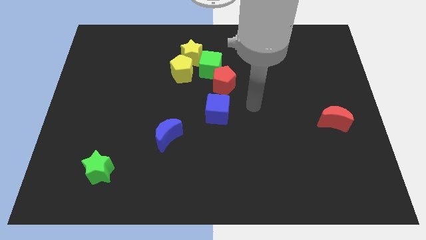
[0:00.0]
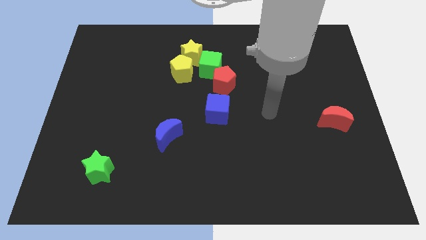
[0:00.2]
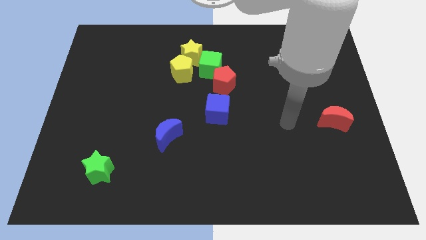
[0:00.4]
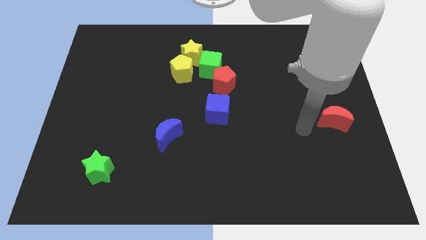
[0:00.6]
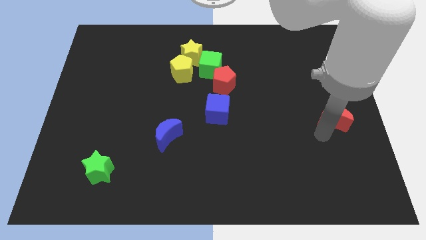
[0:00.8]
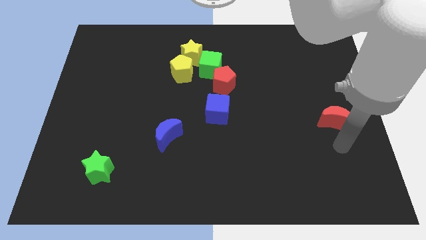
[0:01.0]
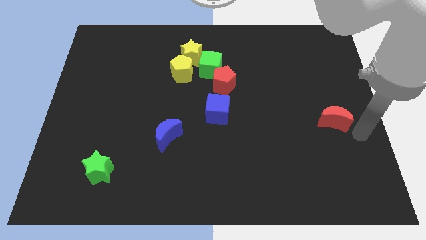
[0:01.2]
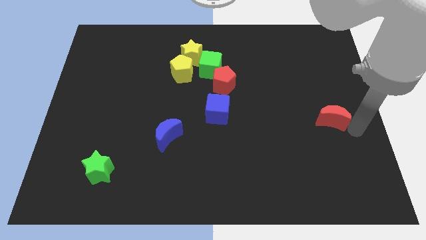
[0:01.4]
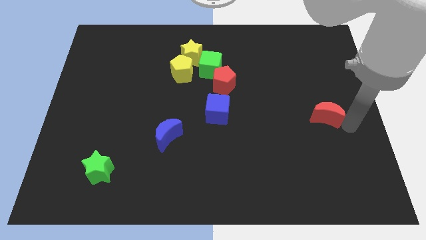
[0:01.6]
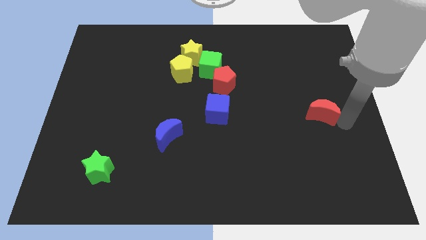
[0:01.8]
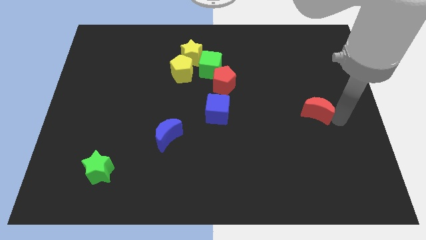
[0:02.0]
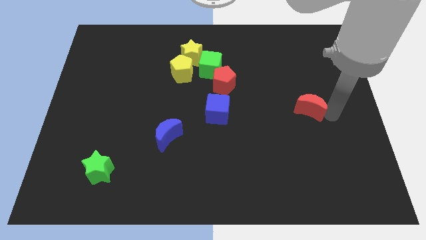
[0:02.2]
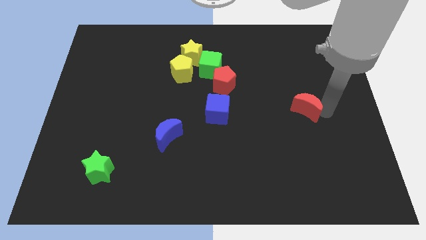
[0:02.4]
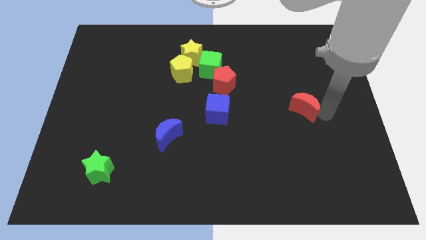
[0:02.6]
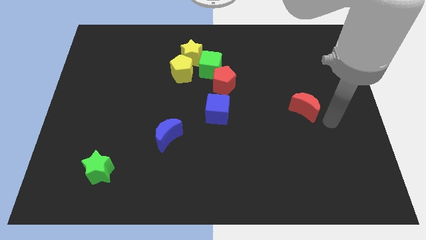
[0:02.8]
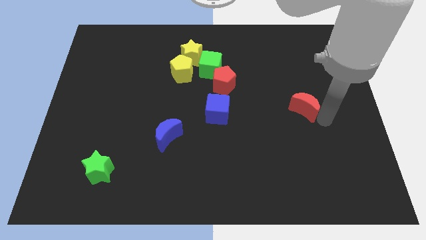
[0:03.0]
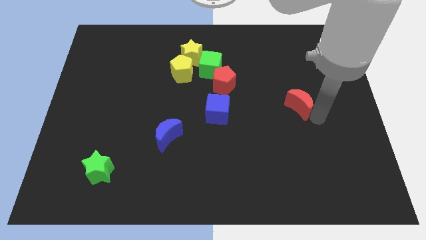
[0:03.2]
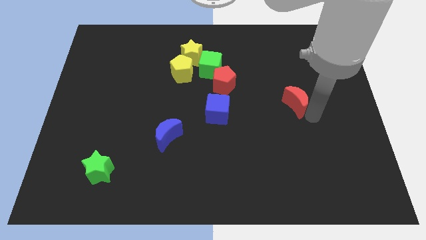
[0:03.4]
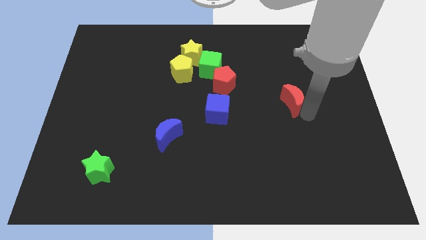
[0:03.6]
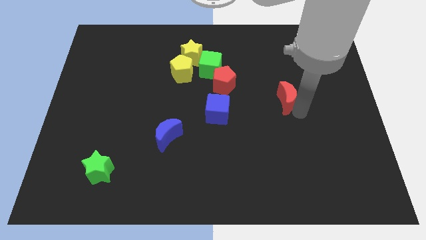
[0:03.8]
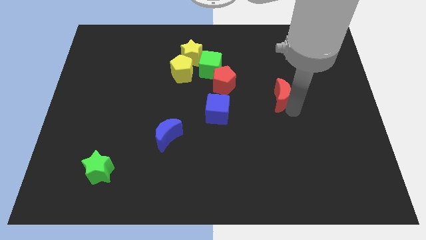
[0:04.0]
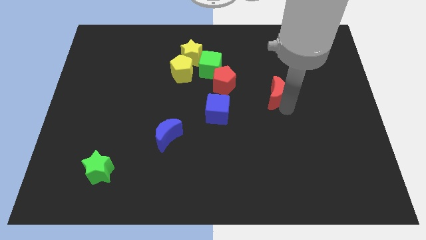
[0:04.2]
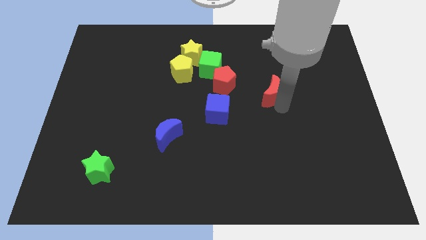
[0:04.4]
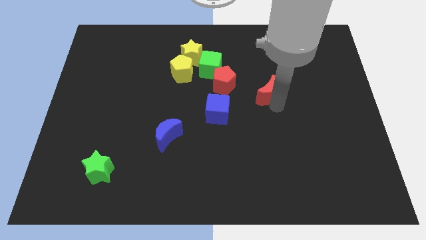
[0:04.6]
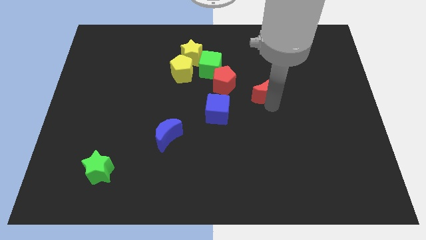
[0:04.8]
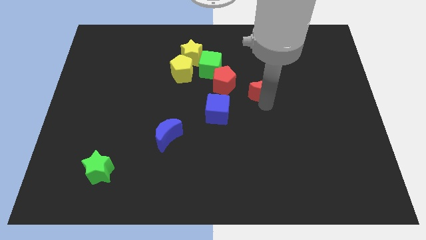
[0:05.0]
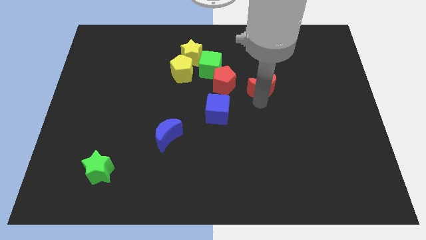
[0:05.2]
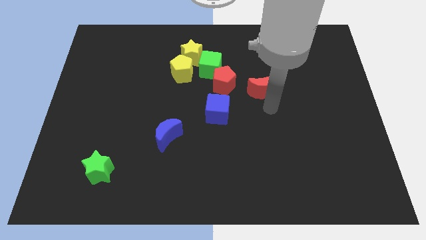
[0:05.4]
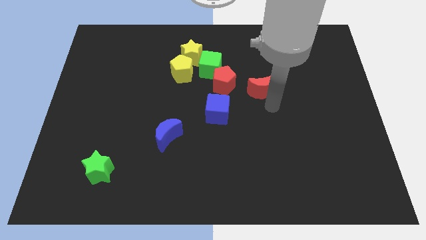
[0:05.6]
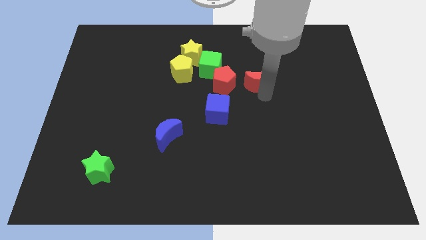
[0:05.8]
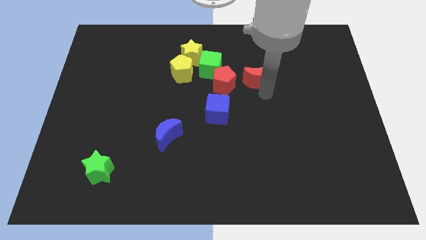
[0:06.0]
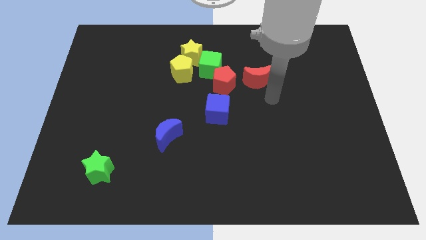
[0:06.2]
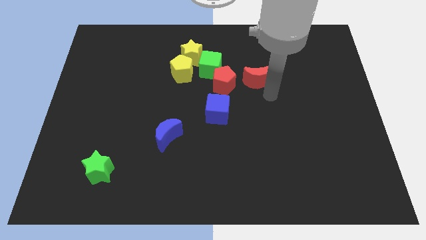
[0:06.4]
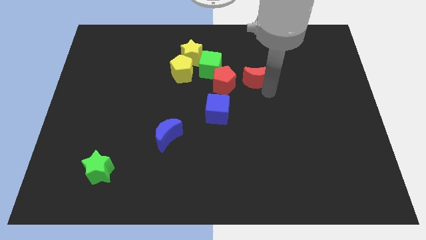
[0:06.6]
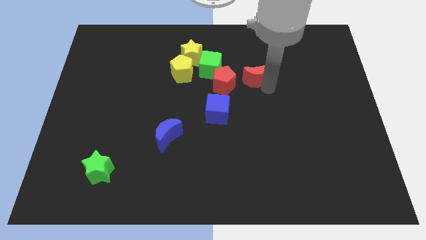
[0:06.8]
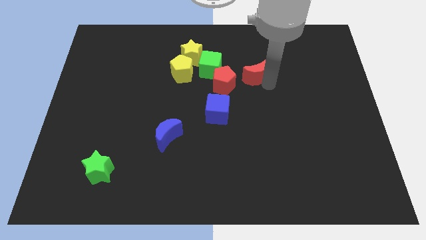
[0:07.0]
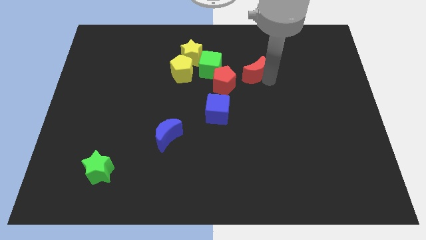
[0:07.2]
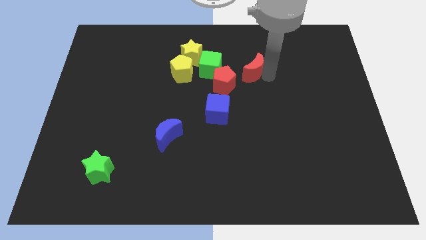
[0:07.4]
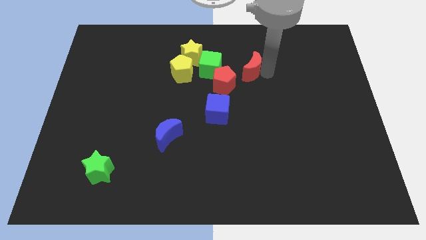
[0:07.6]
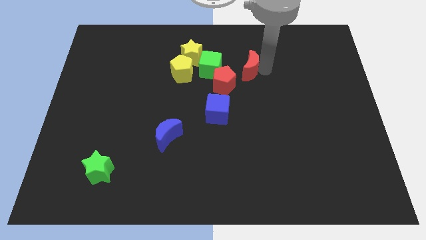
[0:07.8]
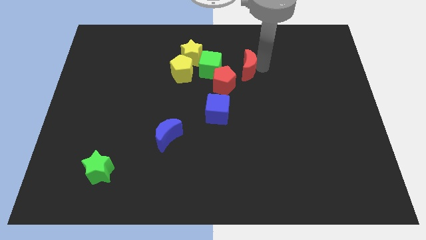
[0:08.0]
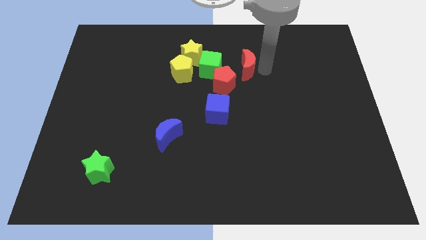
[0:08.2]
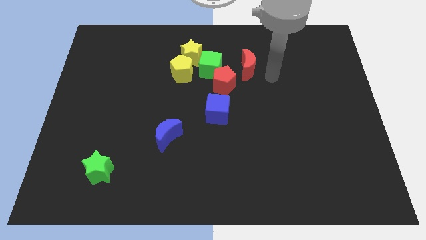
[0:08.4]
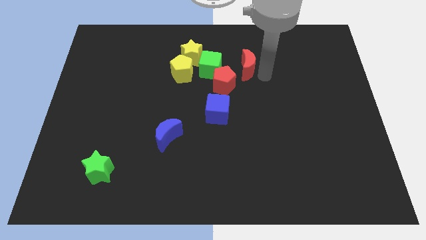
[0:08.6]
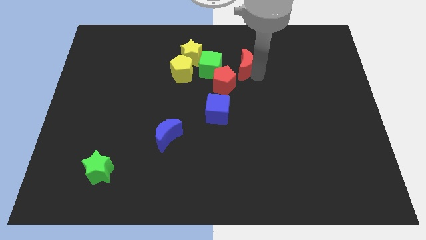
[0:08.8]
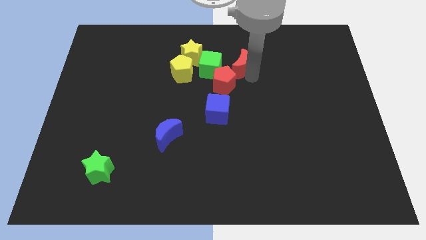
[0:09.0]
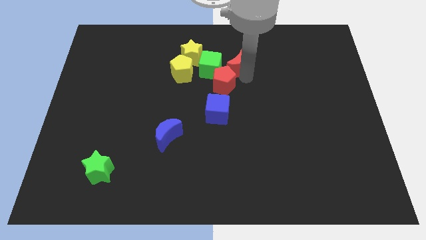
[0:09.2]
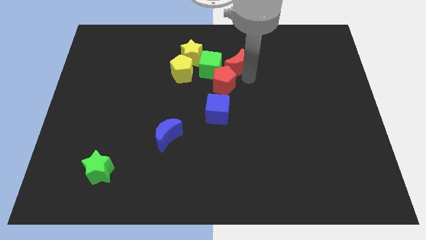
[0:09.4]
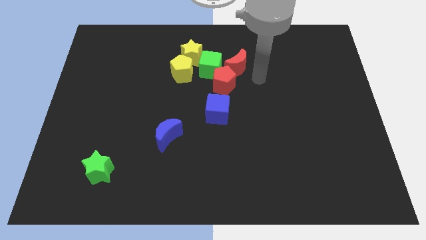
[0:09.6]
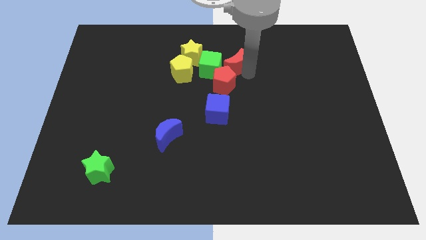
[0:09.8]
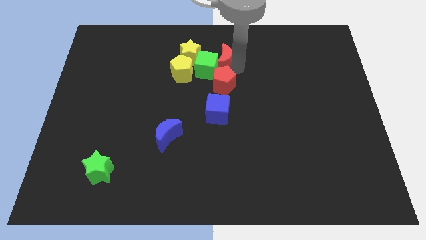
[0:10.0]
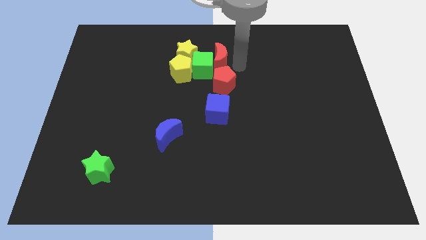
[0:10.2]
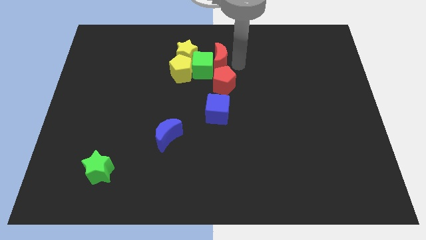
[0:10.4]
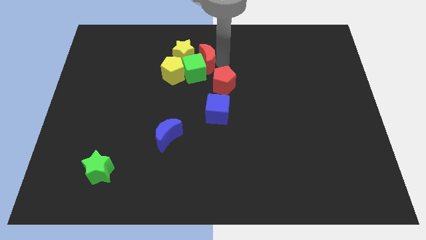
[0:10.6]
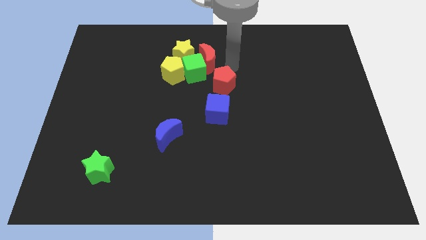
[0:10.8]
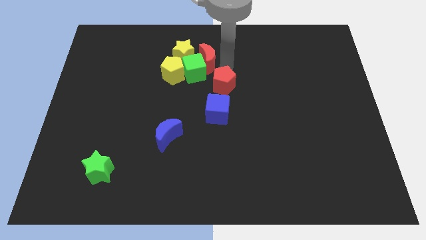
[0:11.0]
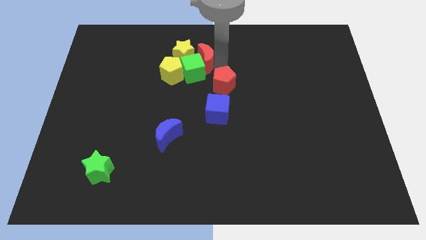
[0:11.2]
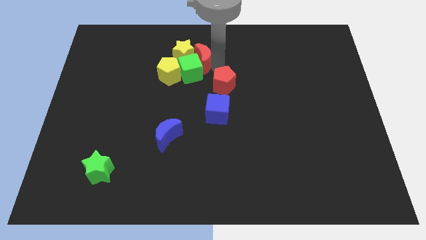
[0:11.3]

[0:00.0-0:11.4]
put the red moon towards the yellow star

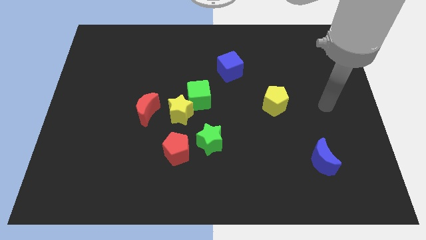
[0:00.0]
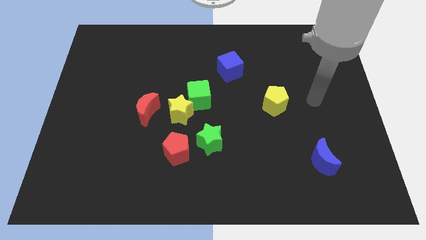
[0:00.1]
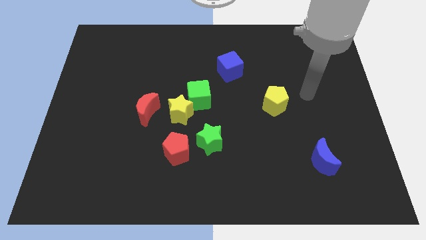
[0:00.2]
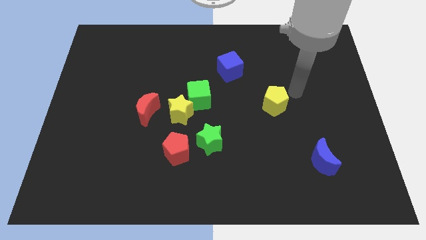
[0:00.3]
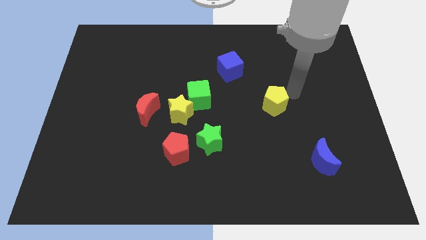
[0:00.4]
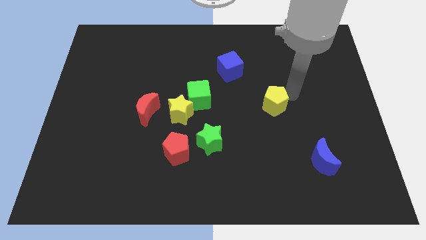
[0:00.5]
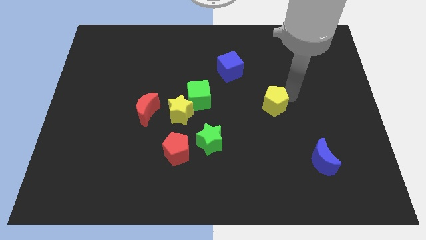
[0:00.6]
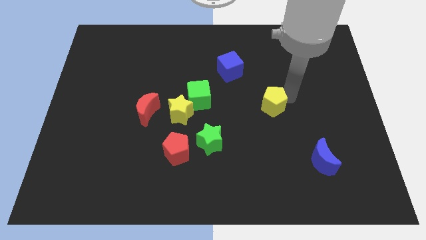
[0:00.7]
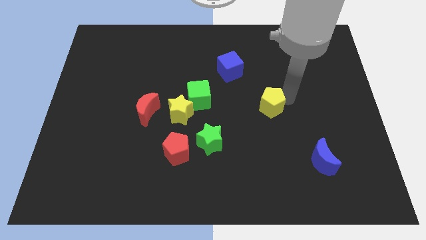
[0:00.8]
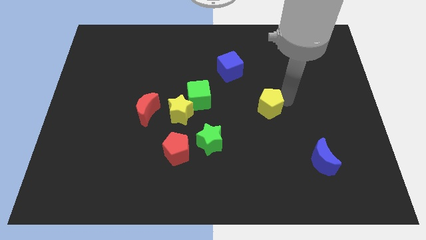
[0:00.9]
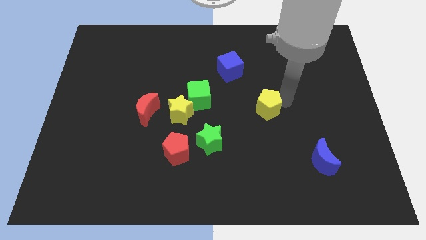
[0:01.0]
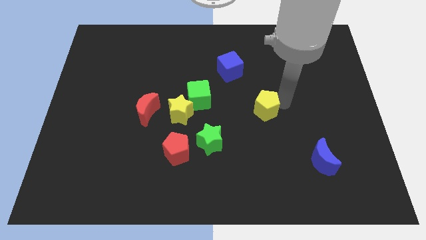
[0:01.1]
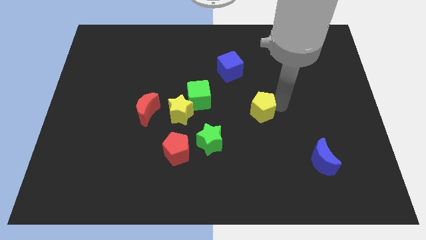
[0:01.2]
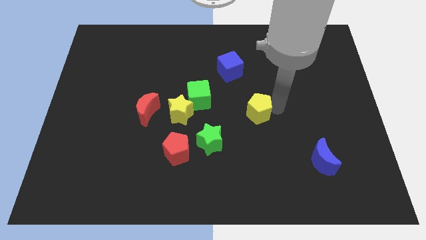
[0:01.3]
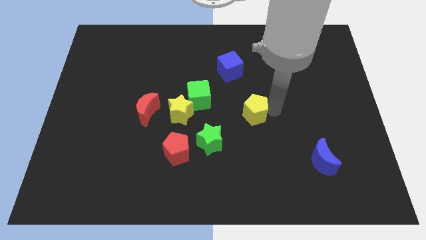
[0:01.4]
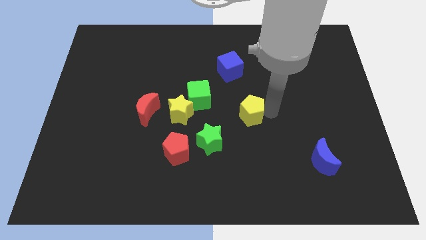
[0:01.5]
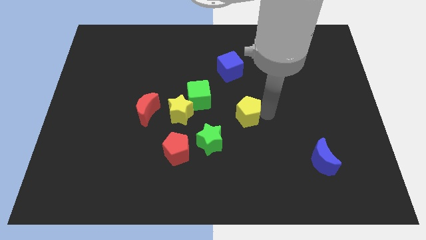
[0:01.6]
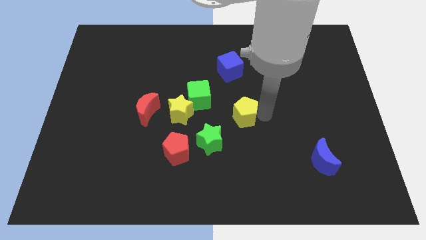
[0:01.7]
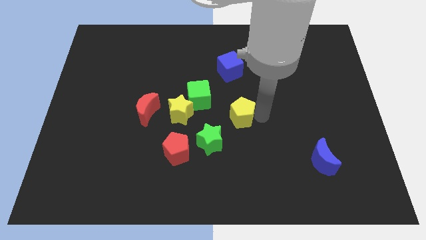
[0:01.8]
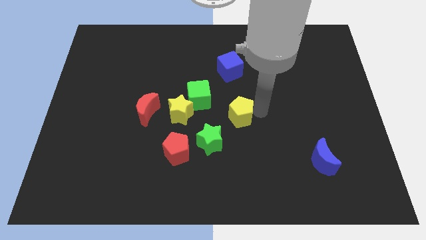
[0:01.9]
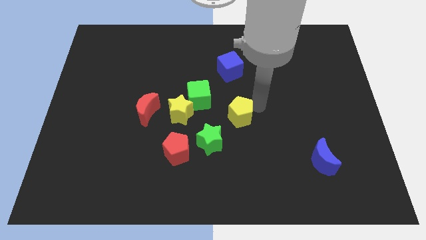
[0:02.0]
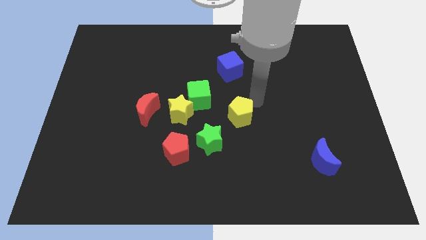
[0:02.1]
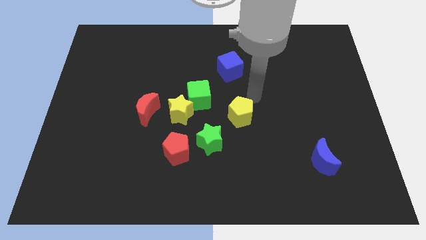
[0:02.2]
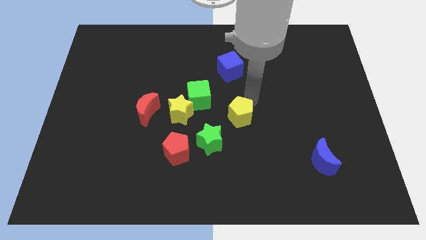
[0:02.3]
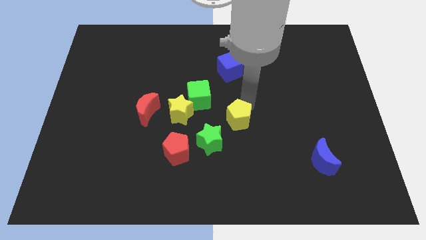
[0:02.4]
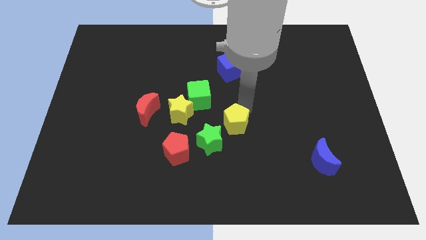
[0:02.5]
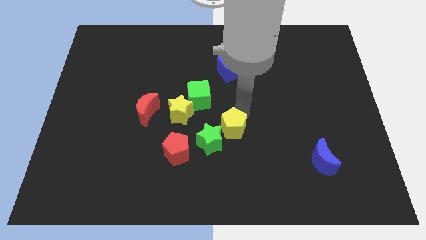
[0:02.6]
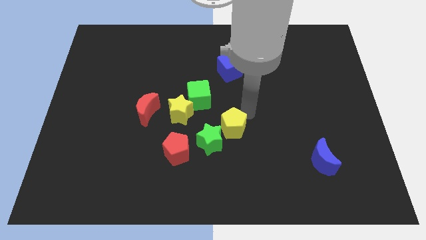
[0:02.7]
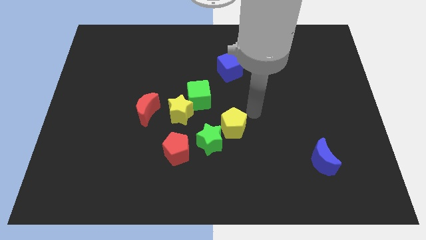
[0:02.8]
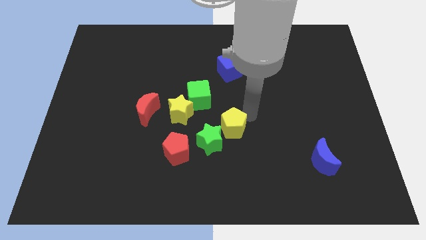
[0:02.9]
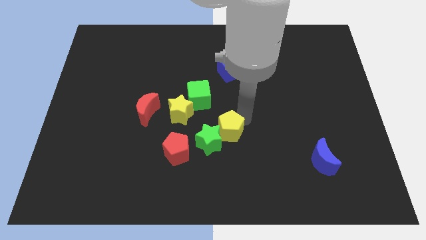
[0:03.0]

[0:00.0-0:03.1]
slide the yellow pentagon close to the green star
